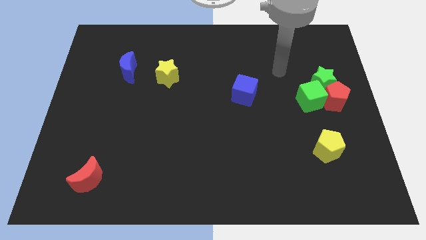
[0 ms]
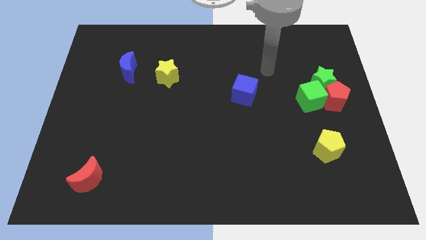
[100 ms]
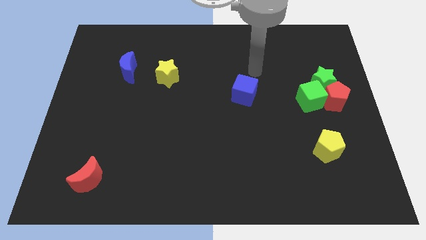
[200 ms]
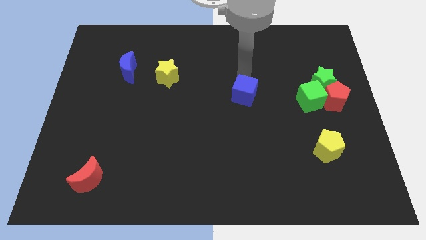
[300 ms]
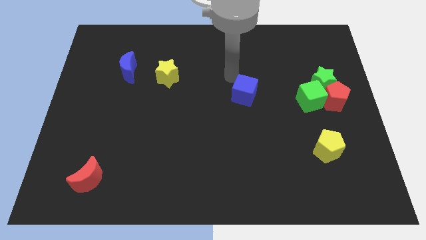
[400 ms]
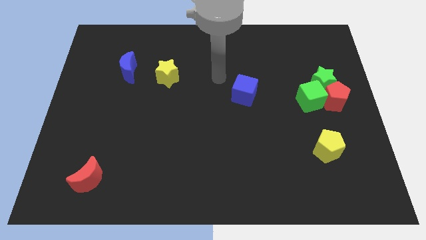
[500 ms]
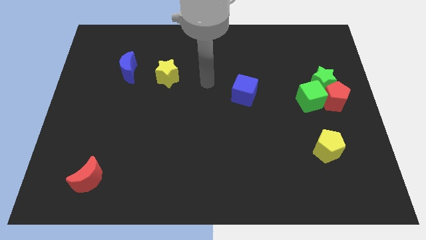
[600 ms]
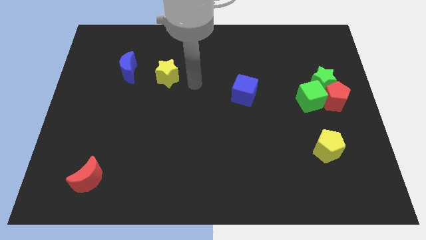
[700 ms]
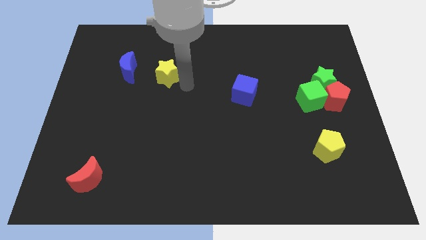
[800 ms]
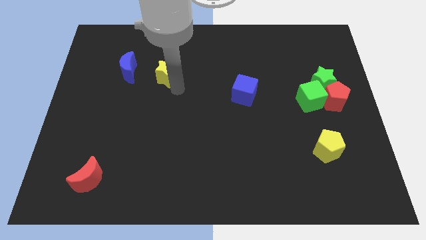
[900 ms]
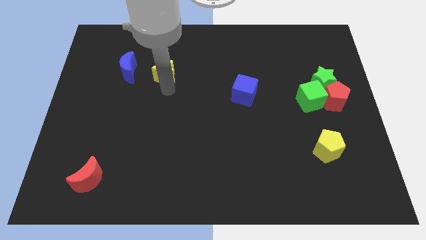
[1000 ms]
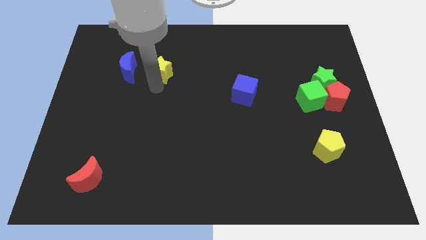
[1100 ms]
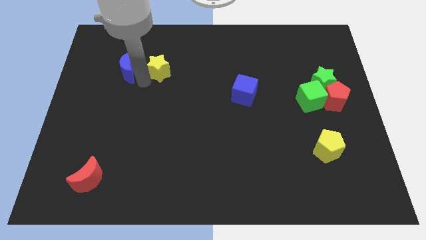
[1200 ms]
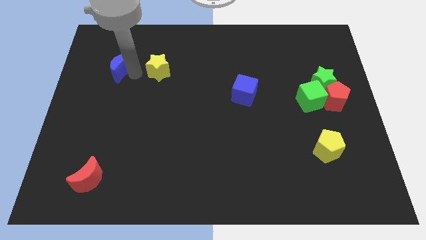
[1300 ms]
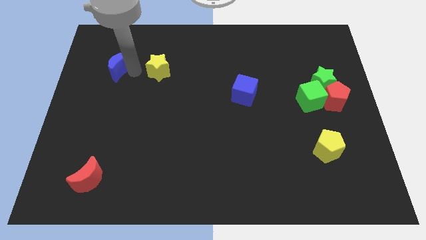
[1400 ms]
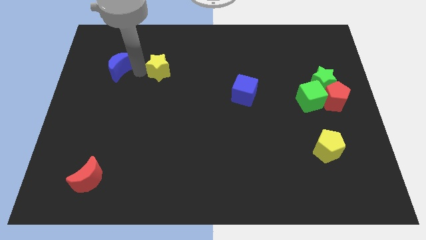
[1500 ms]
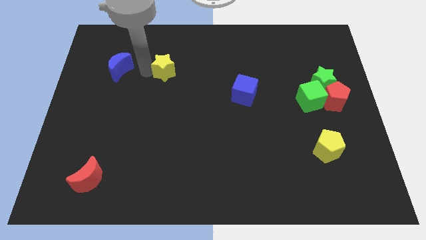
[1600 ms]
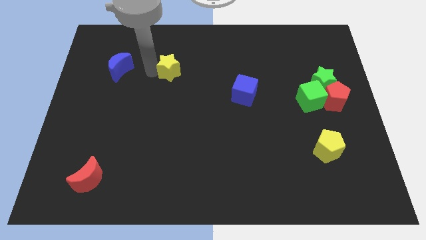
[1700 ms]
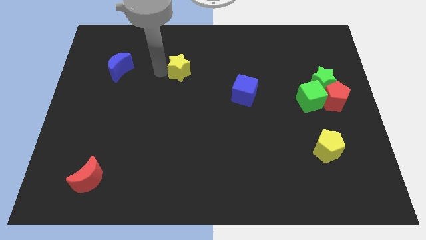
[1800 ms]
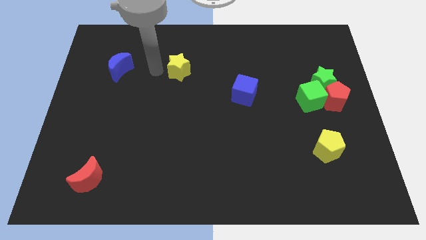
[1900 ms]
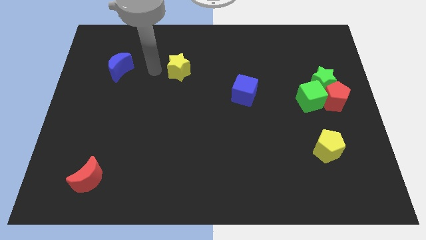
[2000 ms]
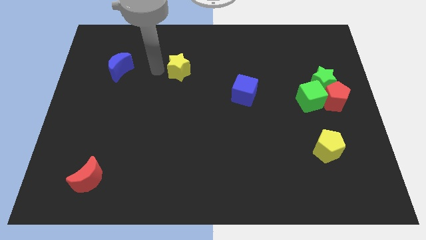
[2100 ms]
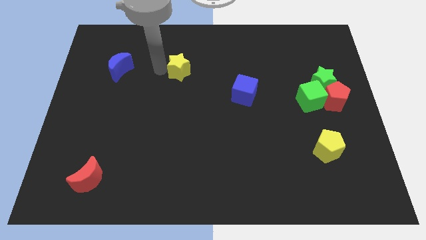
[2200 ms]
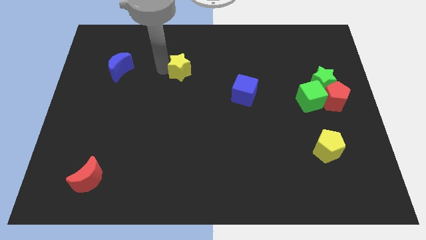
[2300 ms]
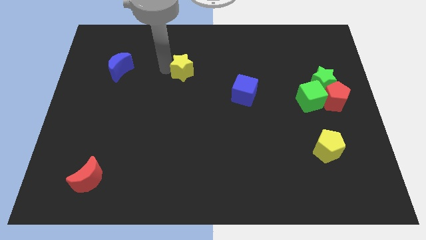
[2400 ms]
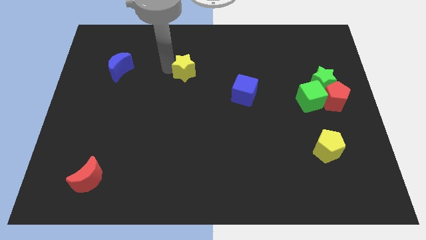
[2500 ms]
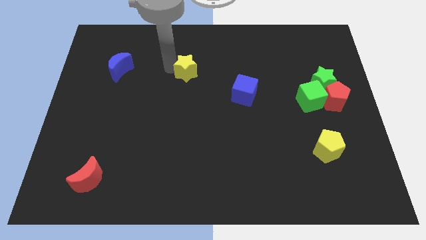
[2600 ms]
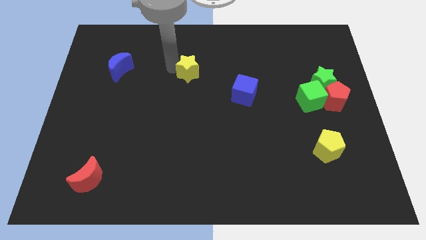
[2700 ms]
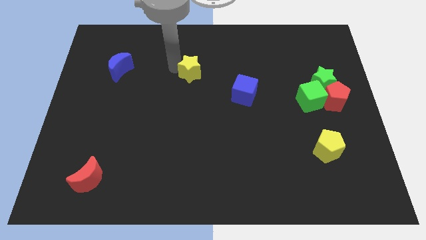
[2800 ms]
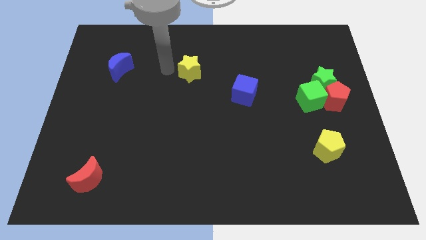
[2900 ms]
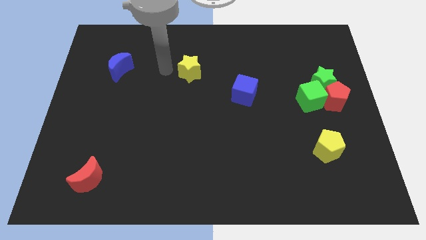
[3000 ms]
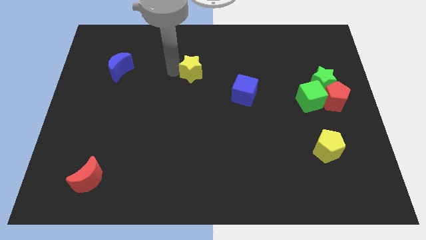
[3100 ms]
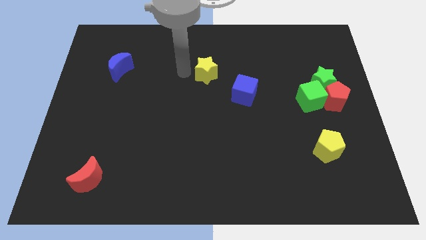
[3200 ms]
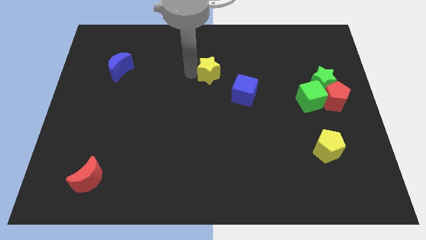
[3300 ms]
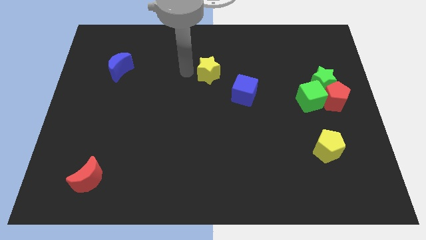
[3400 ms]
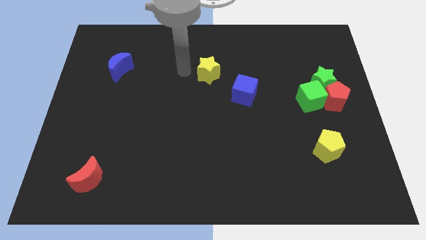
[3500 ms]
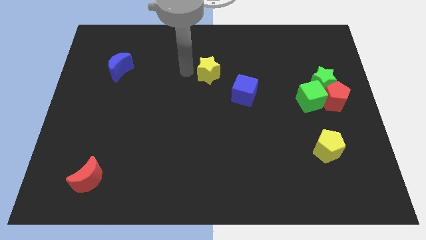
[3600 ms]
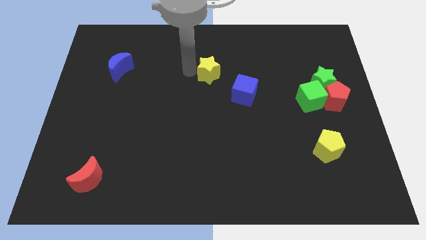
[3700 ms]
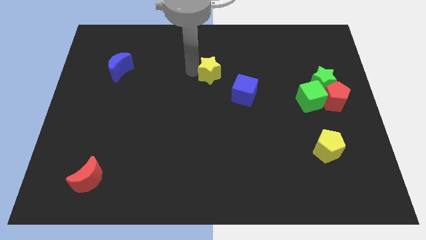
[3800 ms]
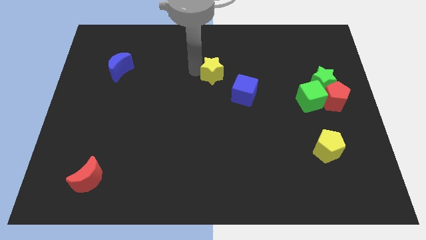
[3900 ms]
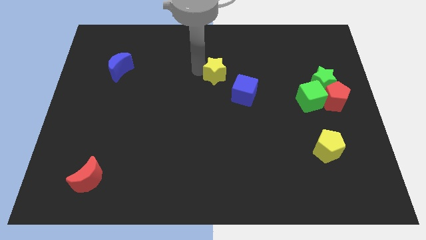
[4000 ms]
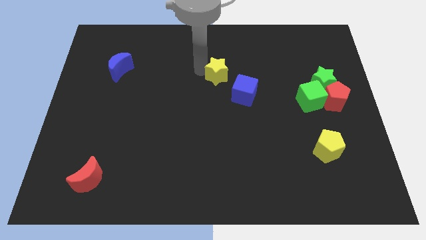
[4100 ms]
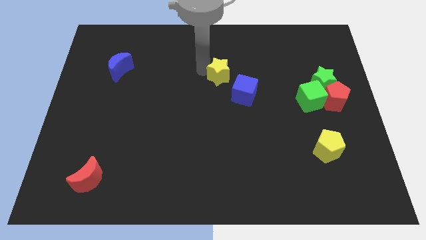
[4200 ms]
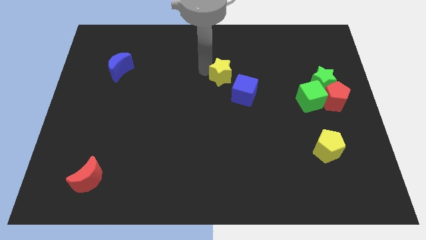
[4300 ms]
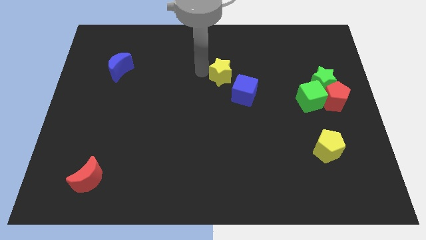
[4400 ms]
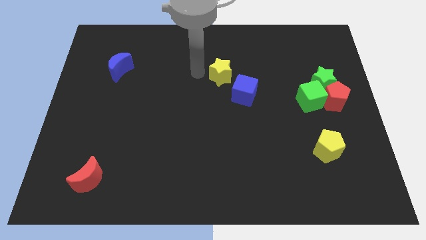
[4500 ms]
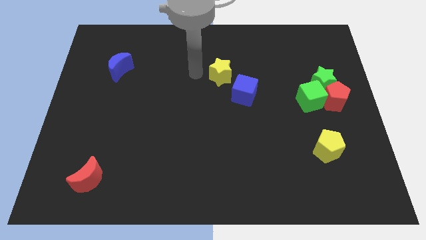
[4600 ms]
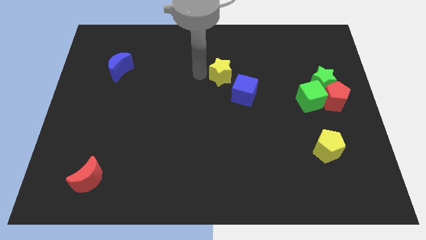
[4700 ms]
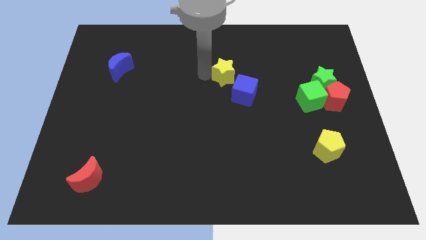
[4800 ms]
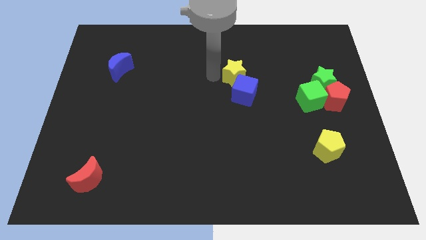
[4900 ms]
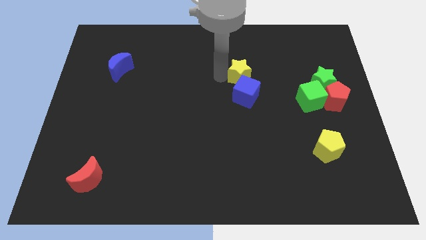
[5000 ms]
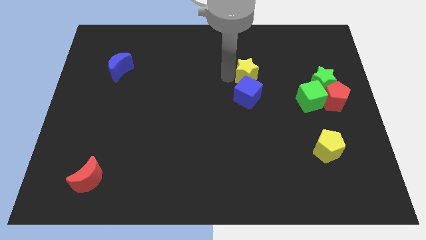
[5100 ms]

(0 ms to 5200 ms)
slide the yellow star to the top right side of the blue cube
